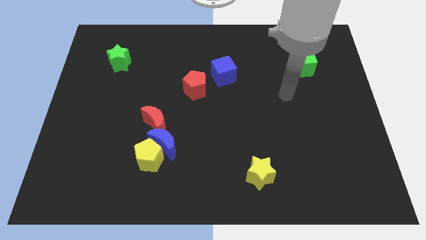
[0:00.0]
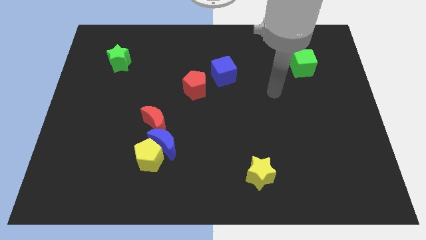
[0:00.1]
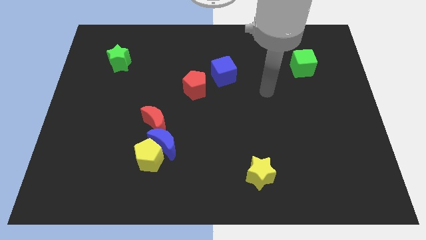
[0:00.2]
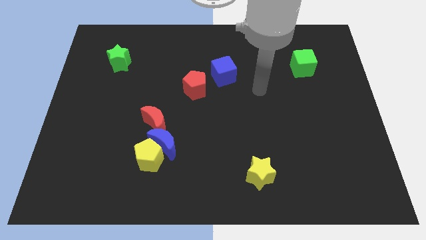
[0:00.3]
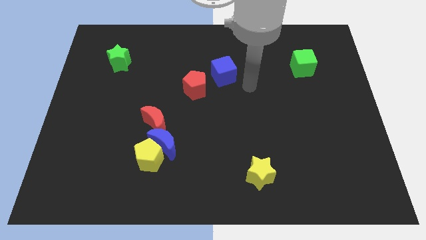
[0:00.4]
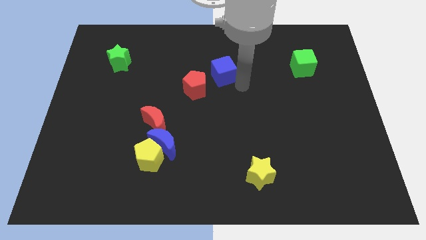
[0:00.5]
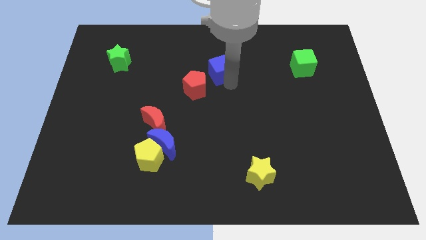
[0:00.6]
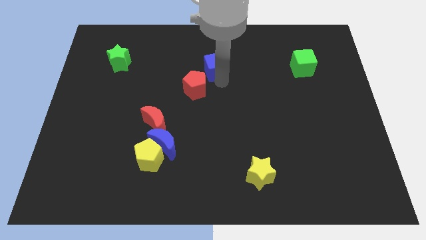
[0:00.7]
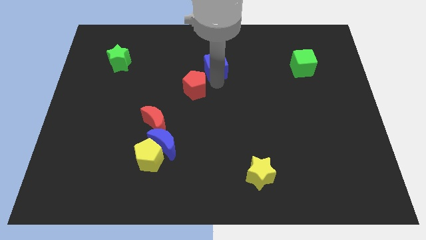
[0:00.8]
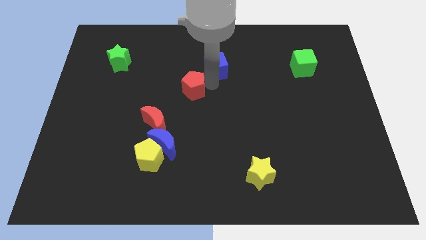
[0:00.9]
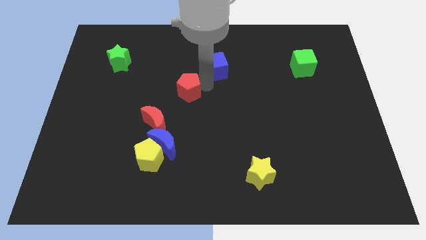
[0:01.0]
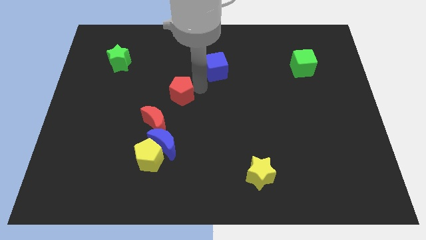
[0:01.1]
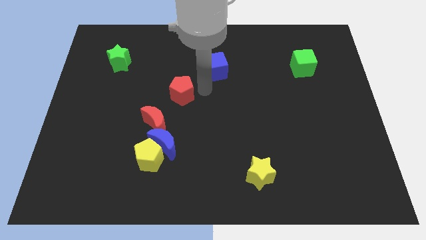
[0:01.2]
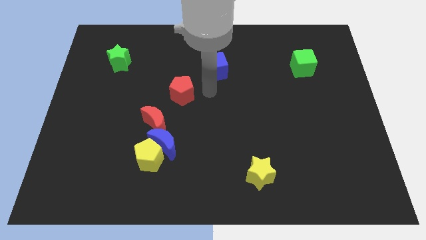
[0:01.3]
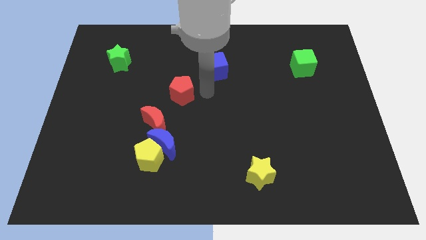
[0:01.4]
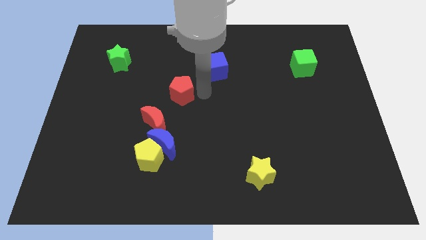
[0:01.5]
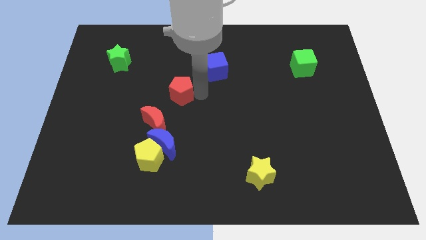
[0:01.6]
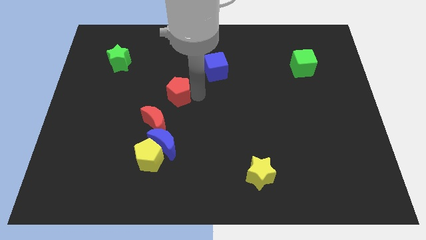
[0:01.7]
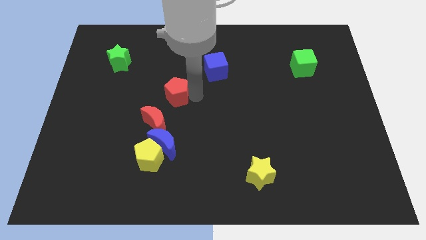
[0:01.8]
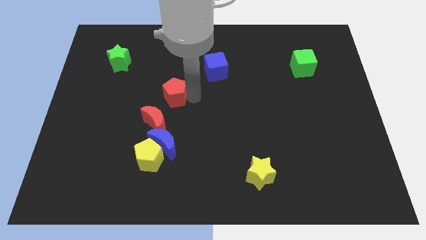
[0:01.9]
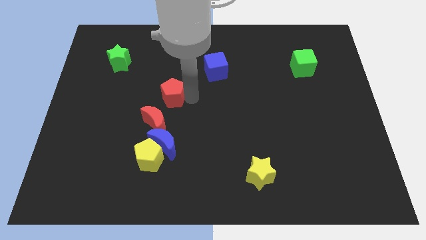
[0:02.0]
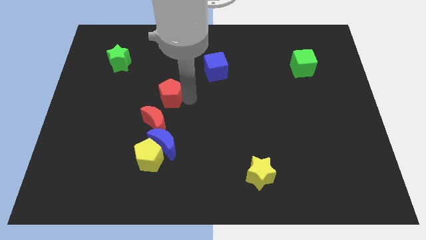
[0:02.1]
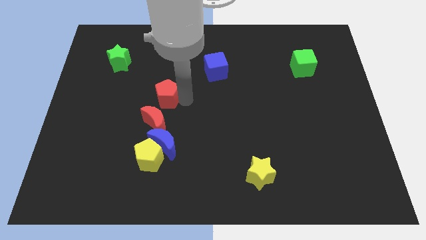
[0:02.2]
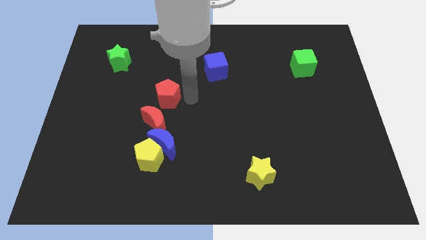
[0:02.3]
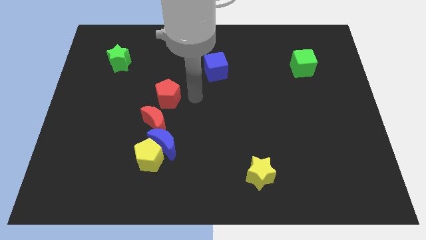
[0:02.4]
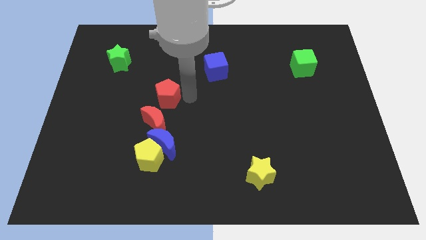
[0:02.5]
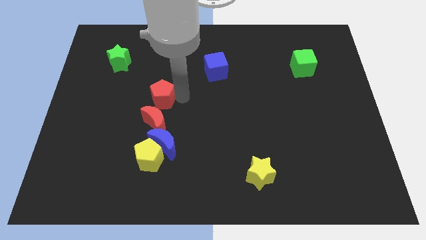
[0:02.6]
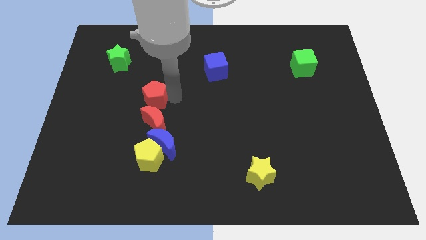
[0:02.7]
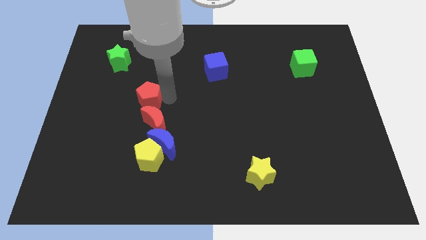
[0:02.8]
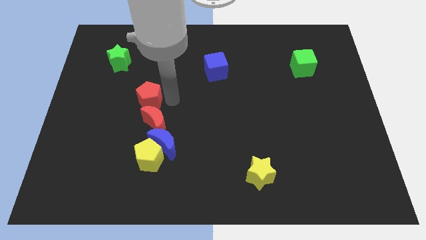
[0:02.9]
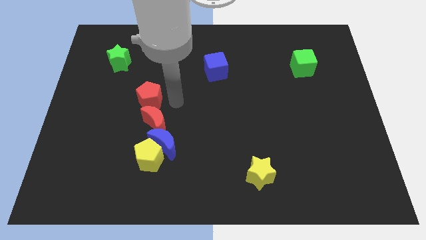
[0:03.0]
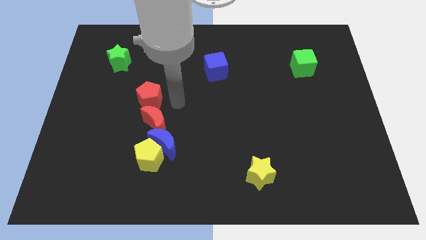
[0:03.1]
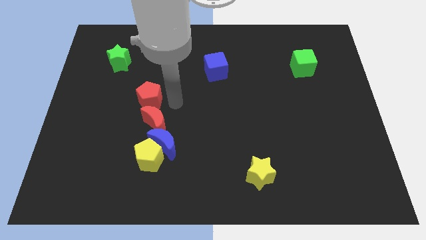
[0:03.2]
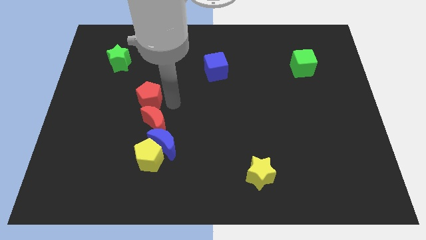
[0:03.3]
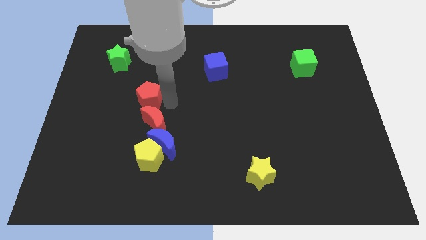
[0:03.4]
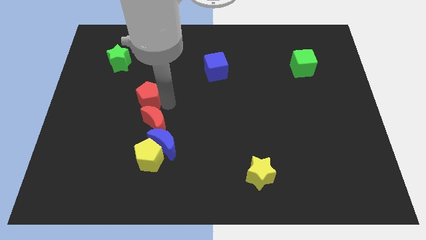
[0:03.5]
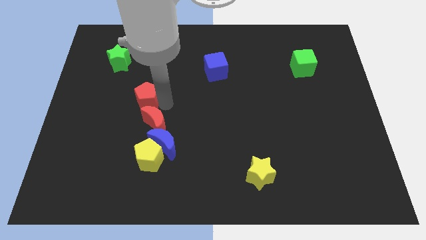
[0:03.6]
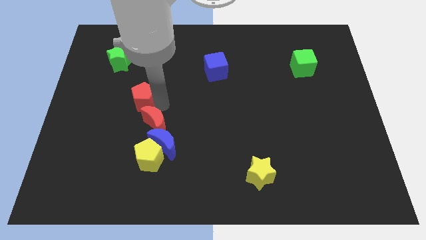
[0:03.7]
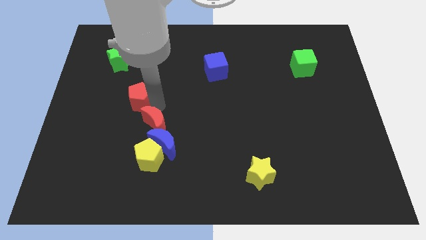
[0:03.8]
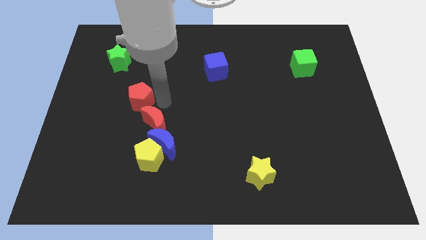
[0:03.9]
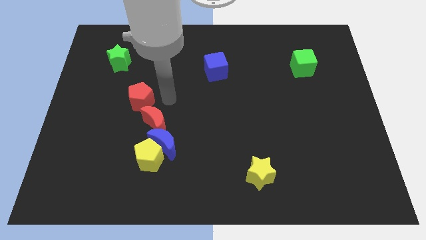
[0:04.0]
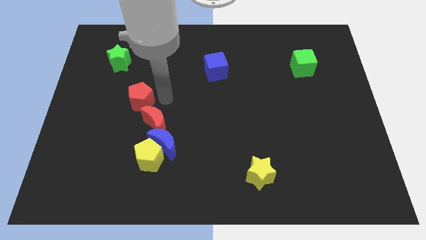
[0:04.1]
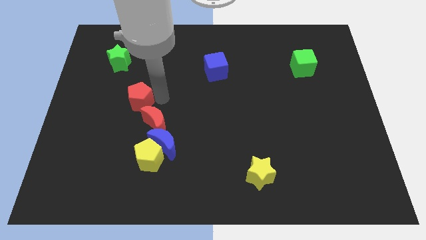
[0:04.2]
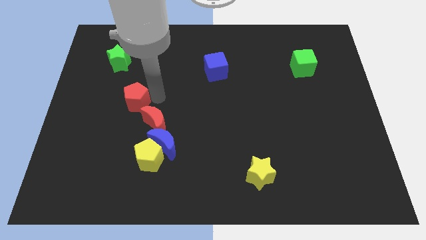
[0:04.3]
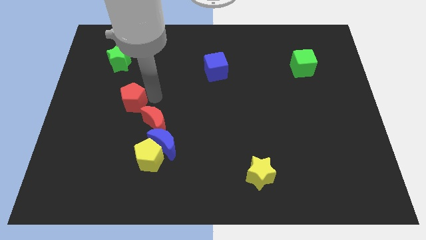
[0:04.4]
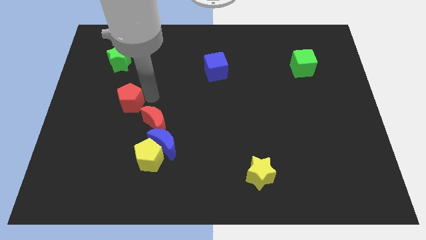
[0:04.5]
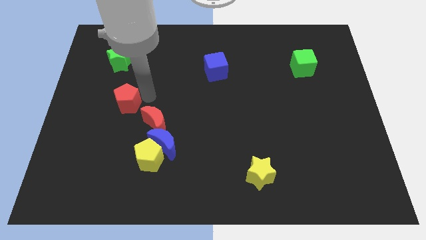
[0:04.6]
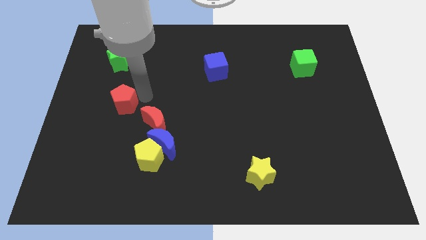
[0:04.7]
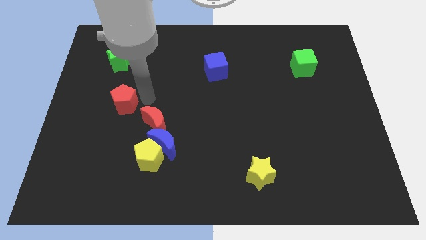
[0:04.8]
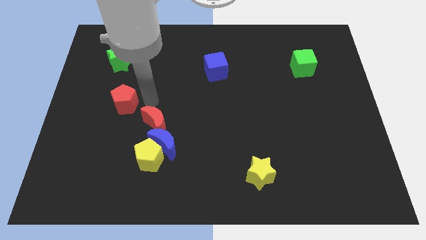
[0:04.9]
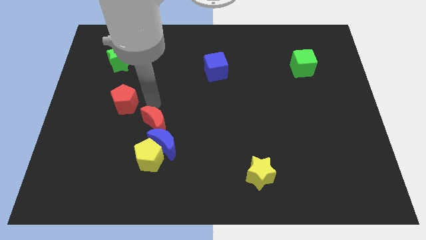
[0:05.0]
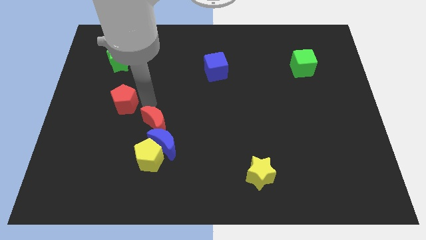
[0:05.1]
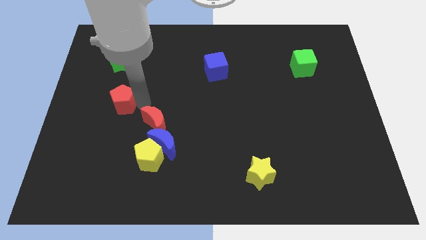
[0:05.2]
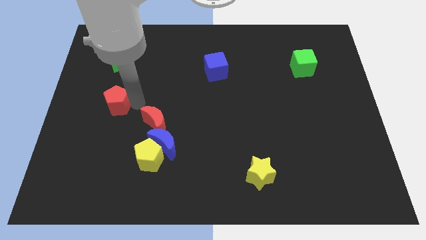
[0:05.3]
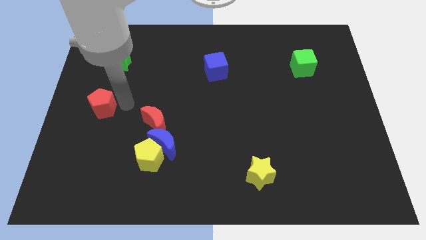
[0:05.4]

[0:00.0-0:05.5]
push the red pentagon to the left side of the board

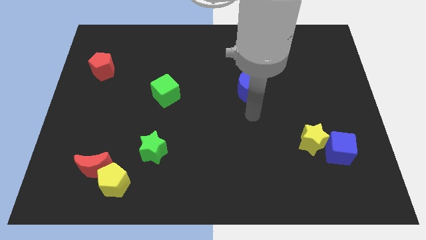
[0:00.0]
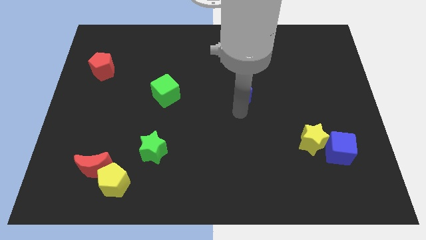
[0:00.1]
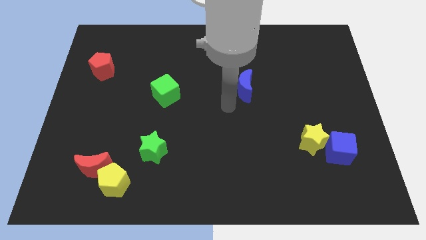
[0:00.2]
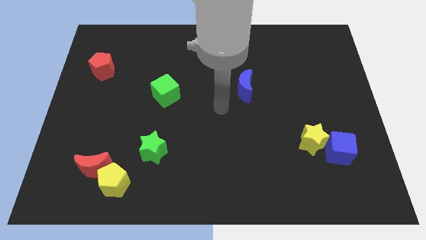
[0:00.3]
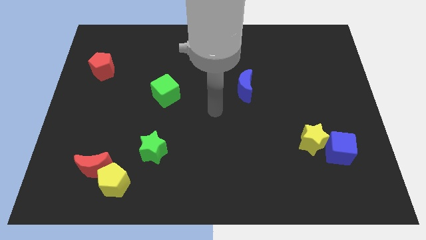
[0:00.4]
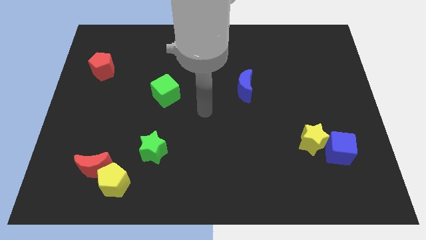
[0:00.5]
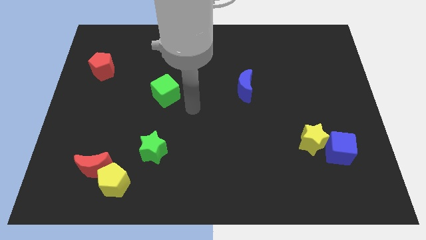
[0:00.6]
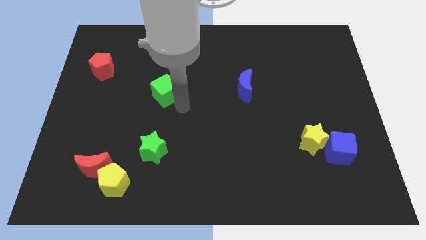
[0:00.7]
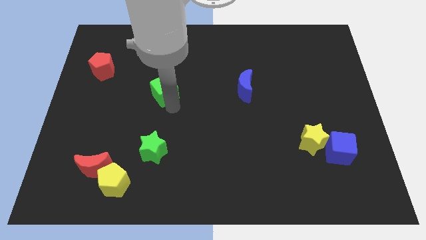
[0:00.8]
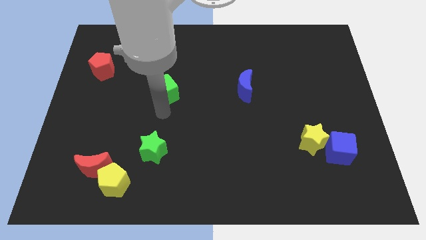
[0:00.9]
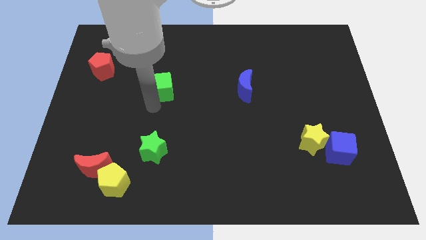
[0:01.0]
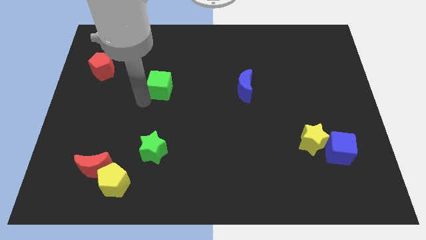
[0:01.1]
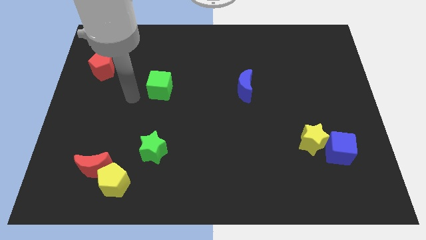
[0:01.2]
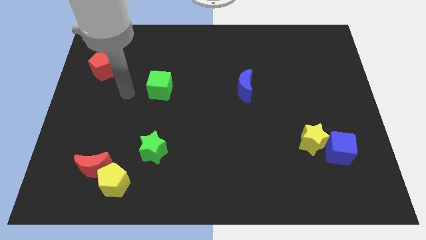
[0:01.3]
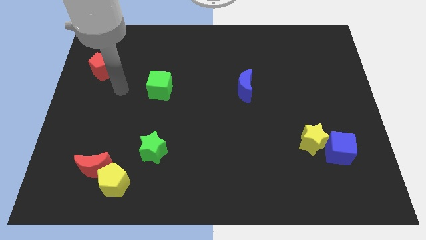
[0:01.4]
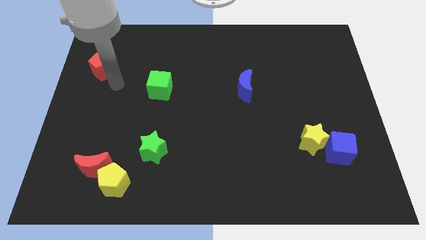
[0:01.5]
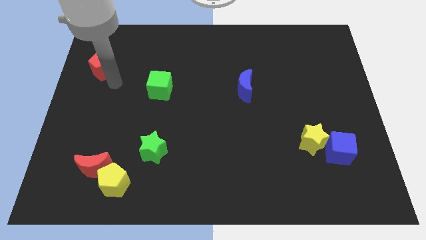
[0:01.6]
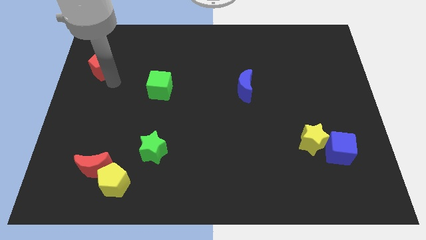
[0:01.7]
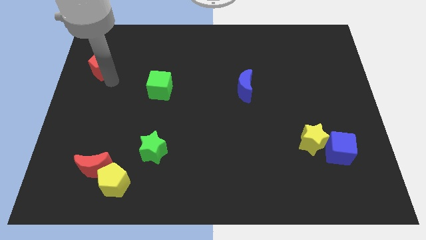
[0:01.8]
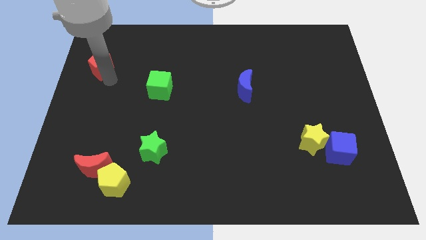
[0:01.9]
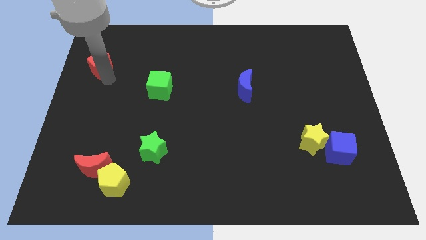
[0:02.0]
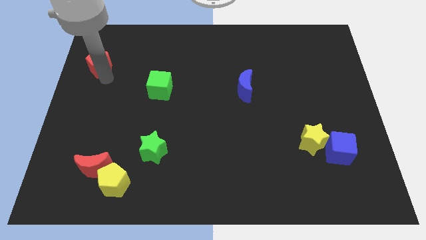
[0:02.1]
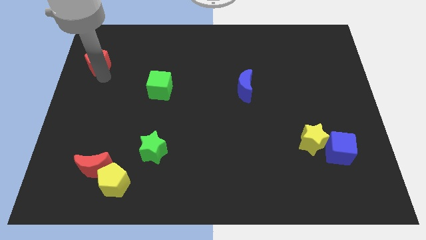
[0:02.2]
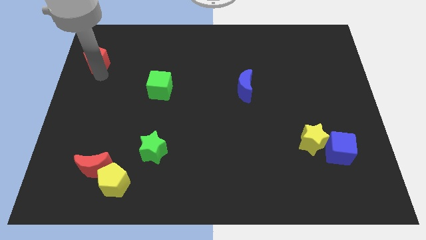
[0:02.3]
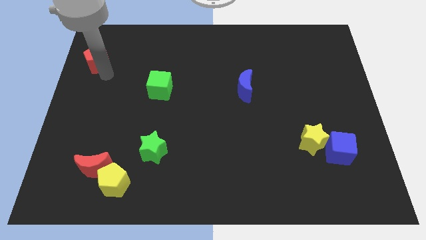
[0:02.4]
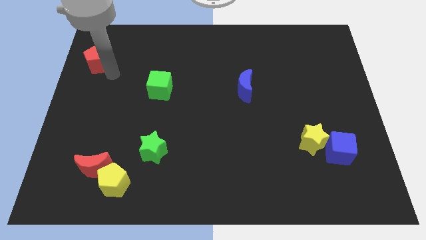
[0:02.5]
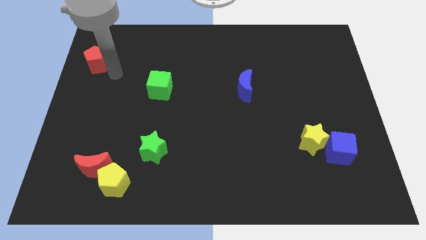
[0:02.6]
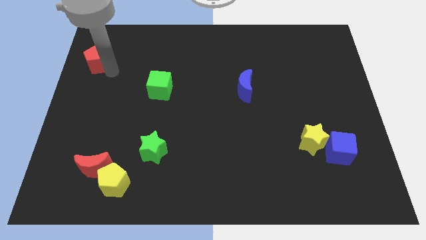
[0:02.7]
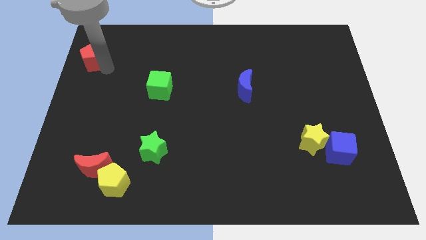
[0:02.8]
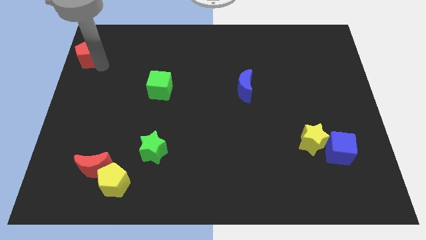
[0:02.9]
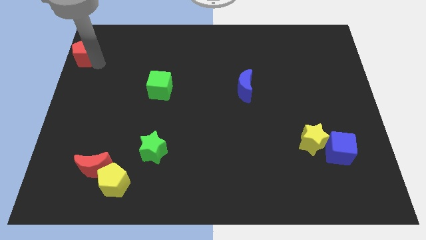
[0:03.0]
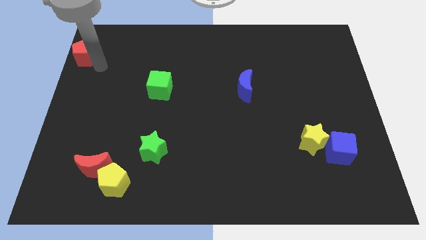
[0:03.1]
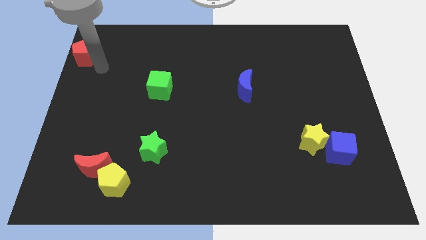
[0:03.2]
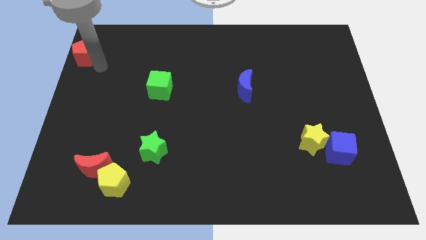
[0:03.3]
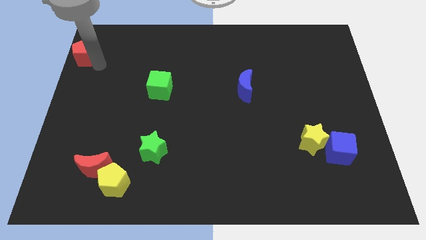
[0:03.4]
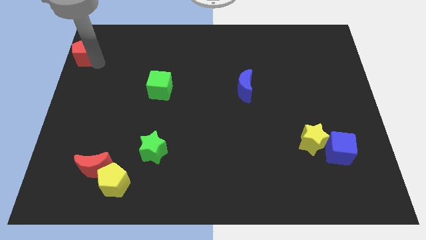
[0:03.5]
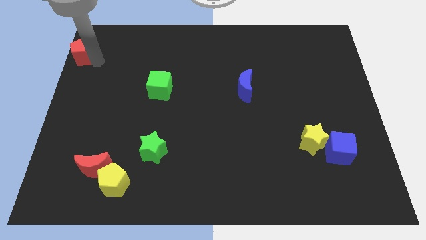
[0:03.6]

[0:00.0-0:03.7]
push the red pentagon to the top left
